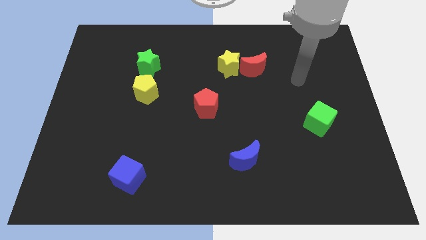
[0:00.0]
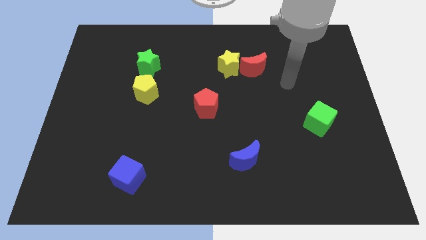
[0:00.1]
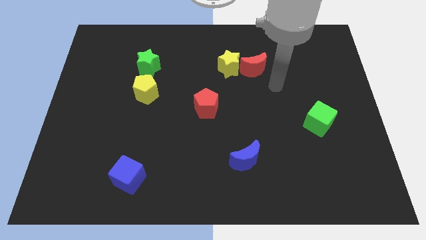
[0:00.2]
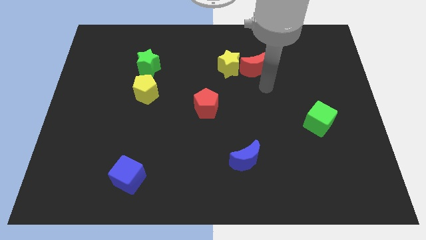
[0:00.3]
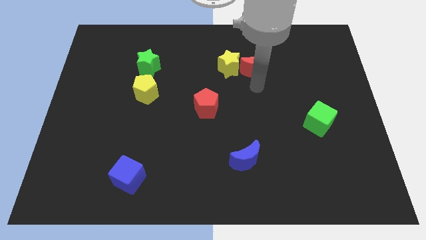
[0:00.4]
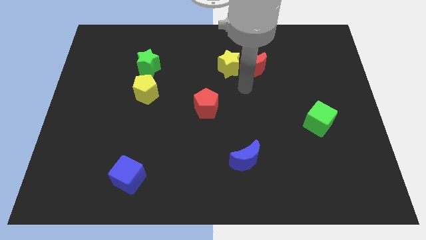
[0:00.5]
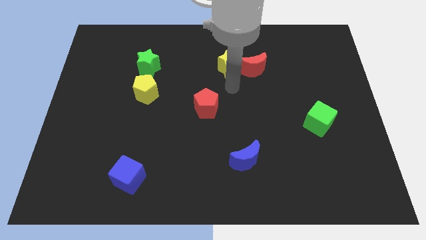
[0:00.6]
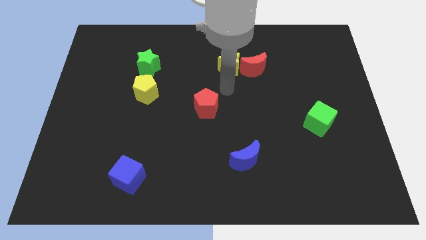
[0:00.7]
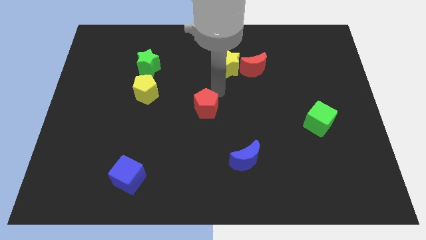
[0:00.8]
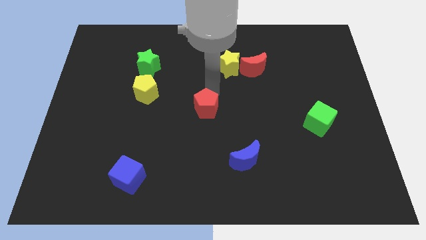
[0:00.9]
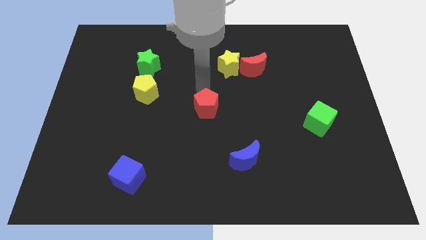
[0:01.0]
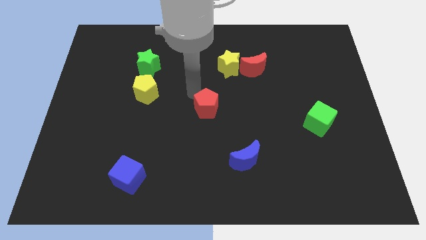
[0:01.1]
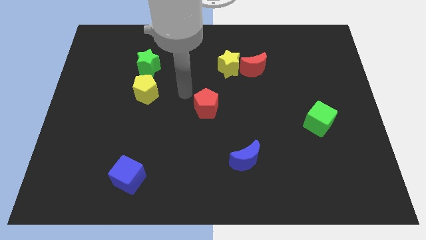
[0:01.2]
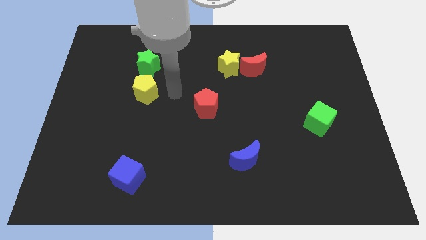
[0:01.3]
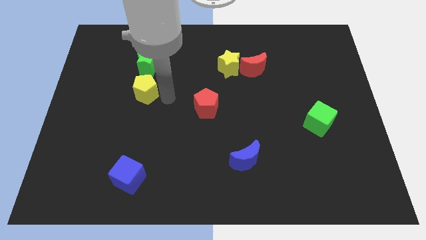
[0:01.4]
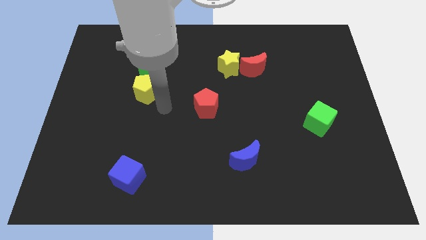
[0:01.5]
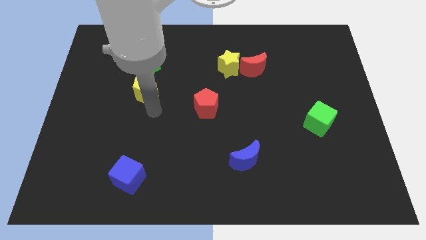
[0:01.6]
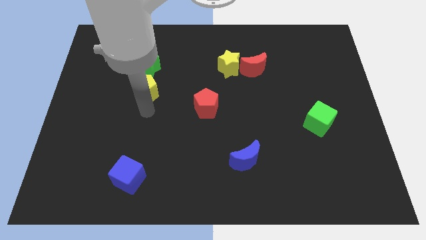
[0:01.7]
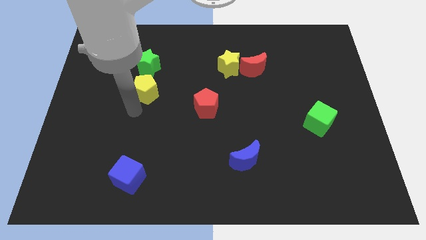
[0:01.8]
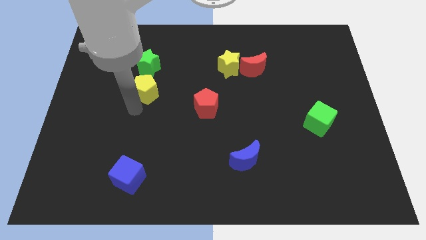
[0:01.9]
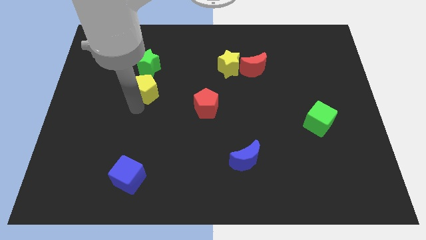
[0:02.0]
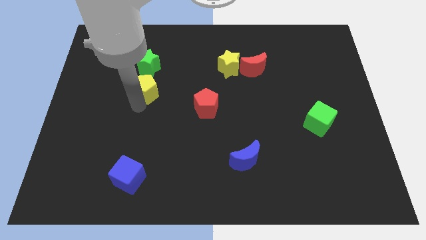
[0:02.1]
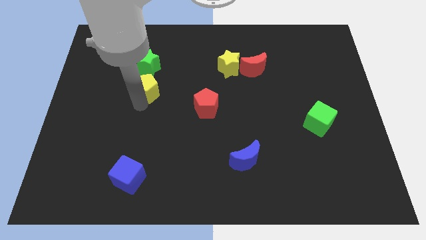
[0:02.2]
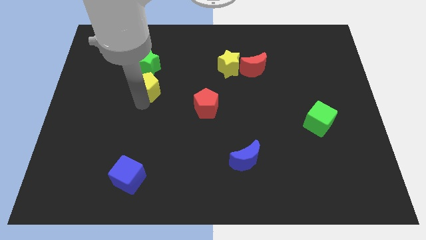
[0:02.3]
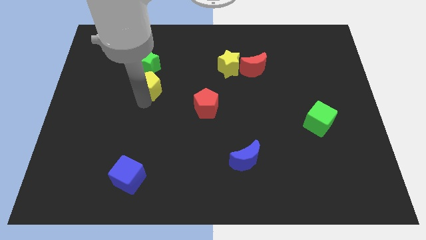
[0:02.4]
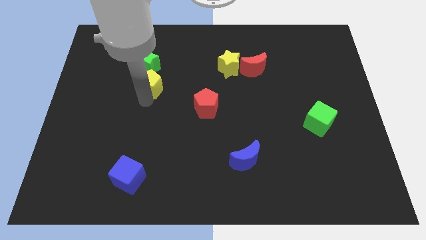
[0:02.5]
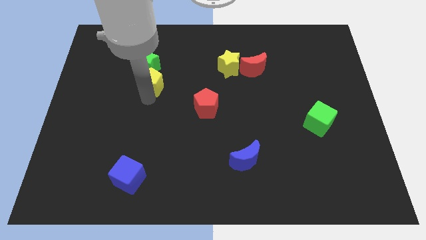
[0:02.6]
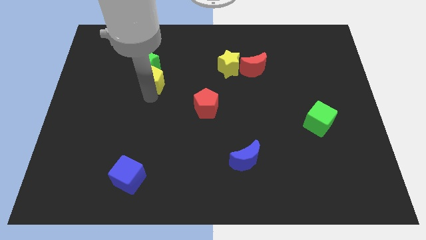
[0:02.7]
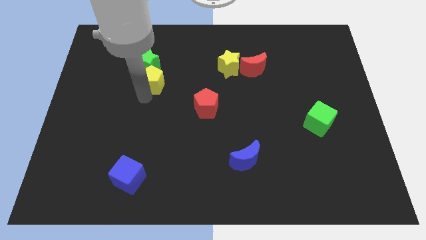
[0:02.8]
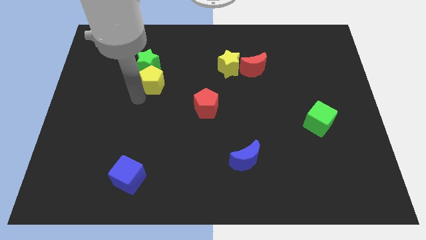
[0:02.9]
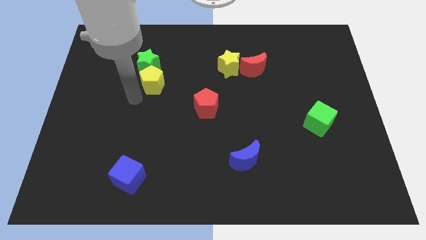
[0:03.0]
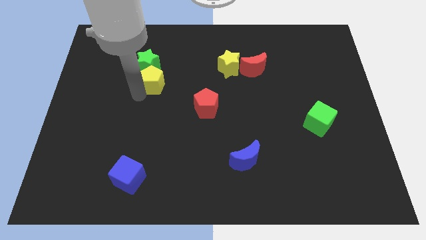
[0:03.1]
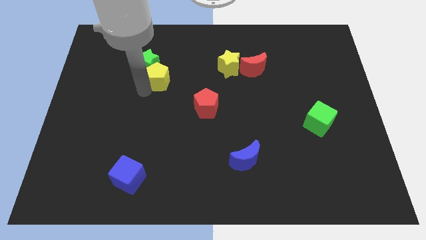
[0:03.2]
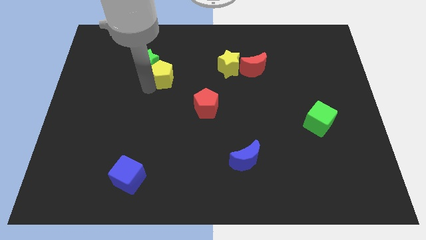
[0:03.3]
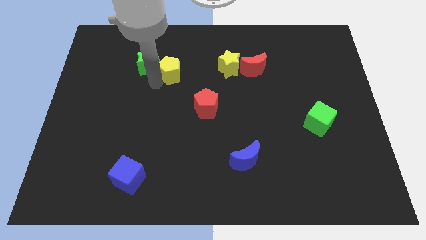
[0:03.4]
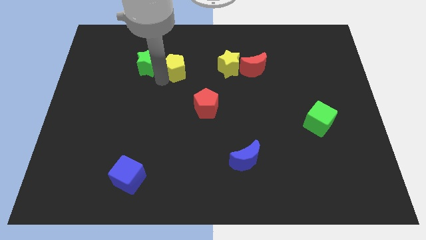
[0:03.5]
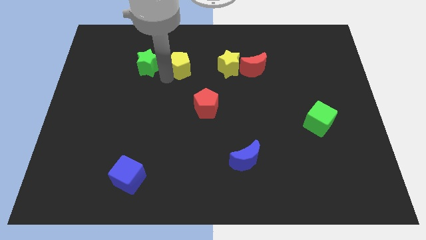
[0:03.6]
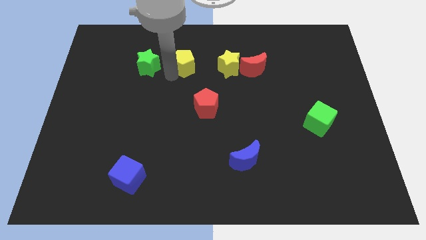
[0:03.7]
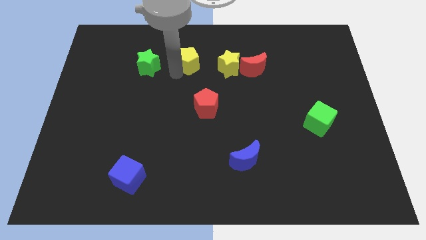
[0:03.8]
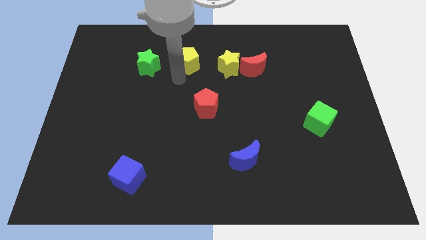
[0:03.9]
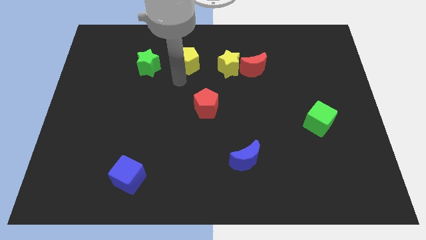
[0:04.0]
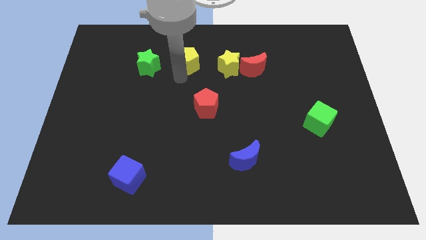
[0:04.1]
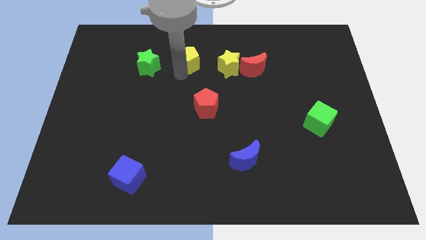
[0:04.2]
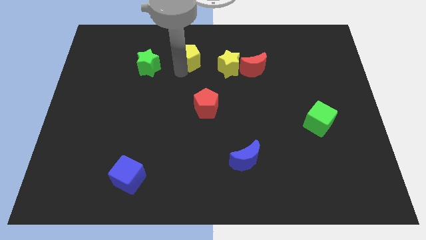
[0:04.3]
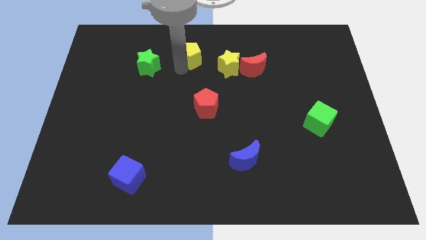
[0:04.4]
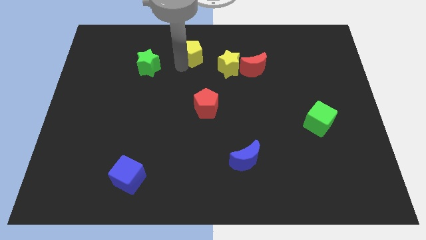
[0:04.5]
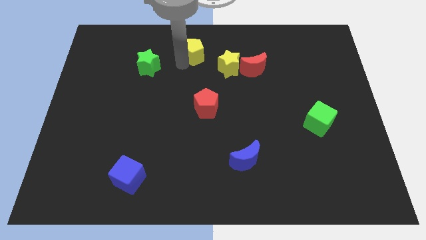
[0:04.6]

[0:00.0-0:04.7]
slide the yellow pentagon to the towards your base

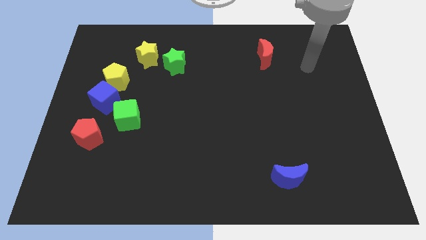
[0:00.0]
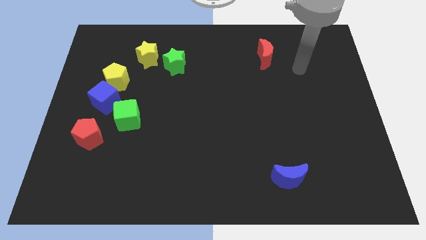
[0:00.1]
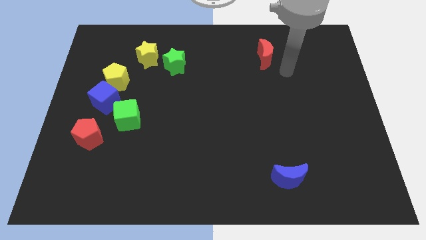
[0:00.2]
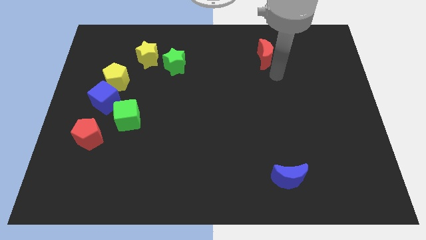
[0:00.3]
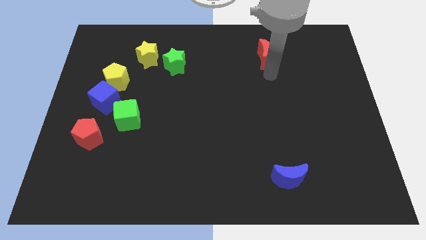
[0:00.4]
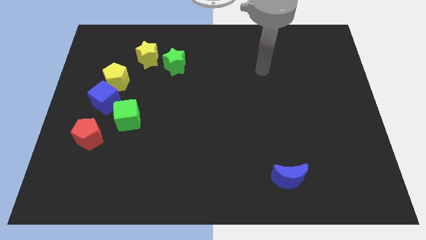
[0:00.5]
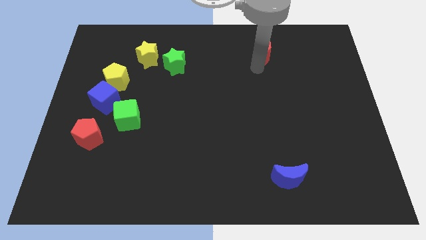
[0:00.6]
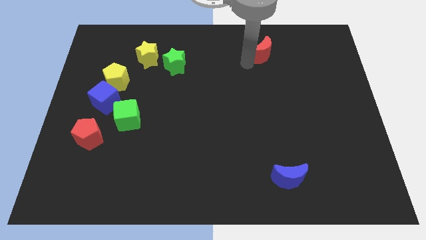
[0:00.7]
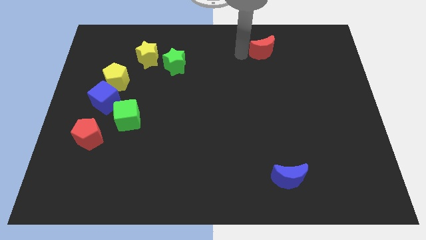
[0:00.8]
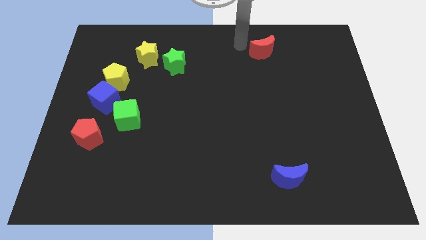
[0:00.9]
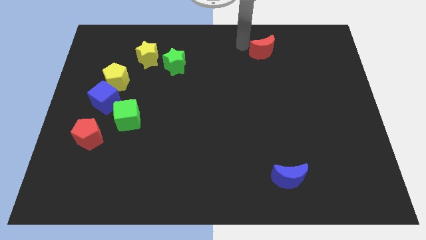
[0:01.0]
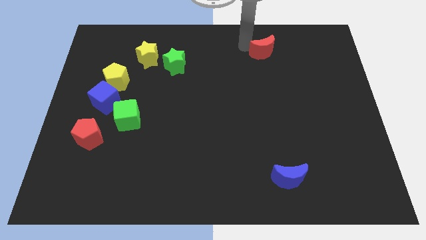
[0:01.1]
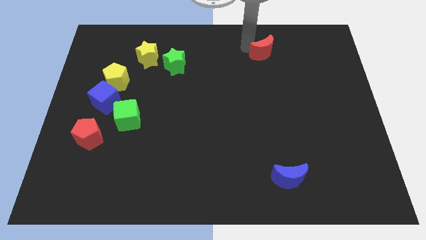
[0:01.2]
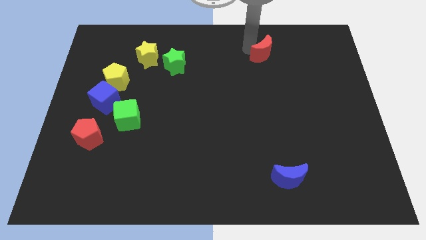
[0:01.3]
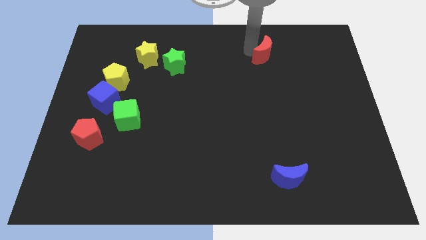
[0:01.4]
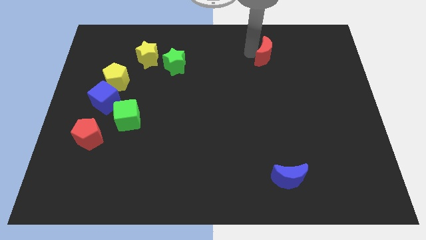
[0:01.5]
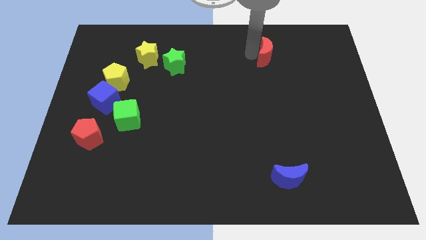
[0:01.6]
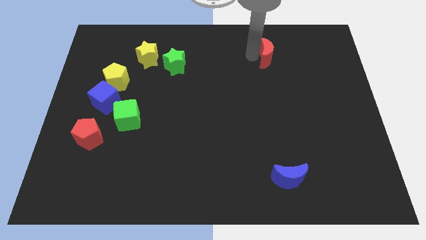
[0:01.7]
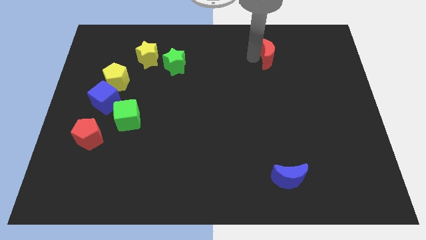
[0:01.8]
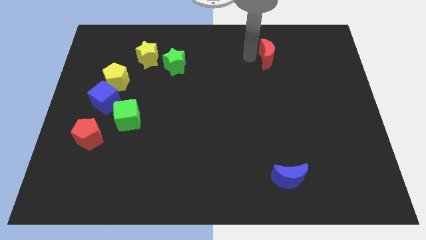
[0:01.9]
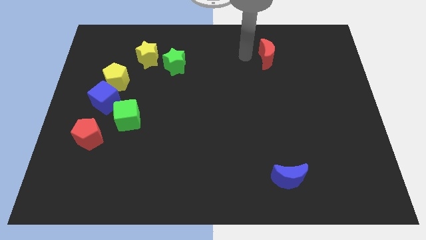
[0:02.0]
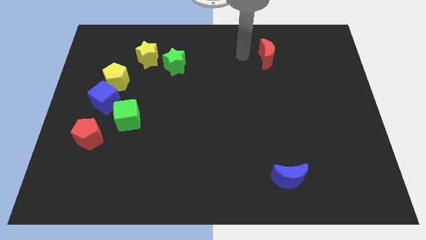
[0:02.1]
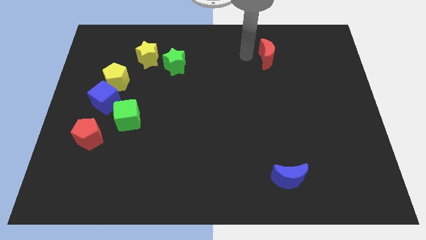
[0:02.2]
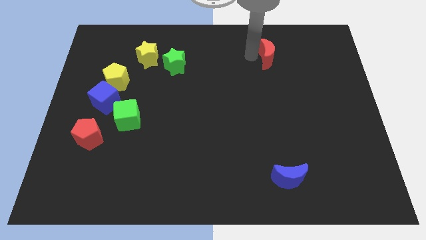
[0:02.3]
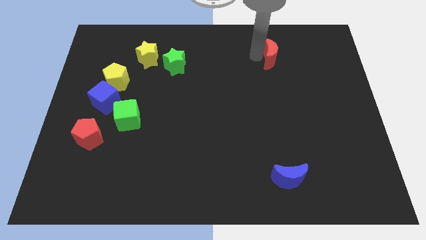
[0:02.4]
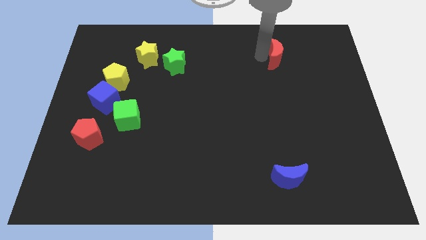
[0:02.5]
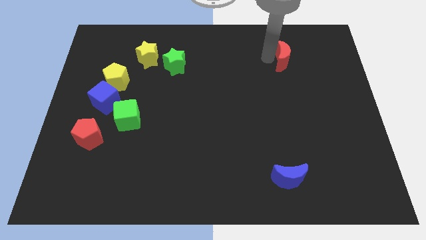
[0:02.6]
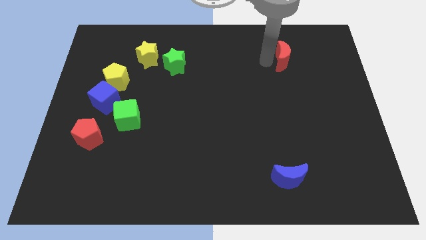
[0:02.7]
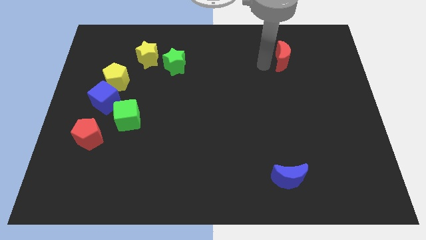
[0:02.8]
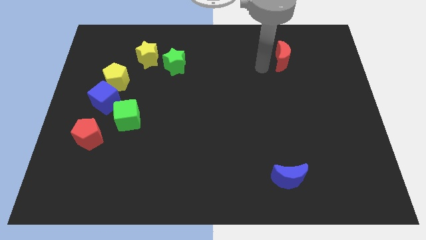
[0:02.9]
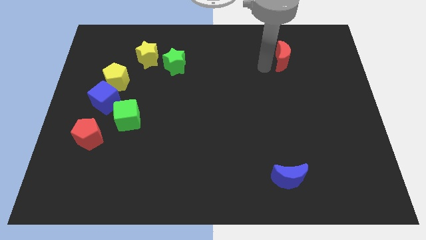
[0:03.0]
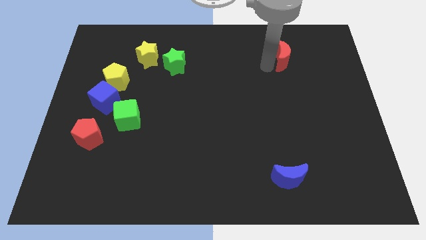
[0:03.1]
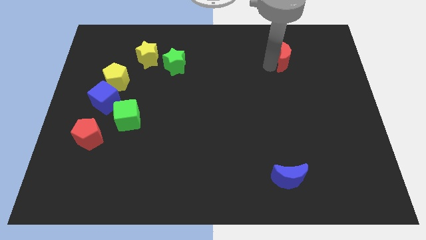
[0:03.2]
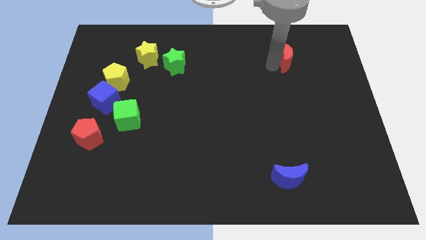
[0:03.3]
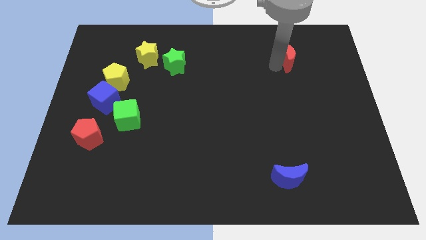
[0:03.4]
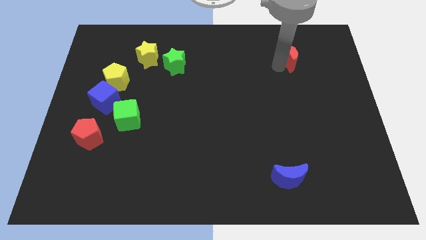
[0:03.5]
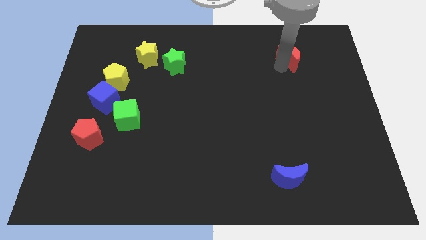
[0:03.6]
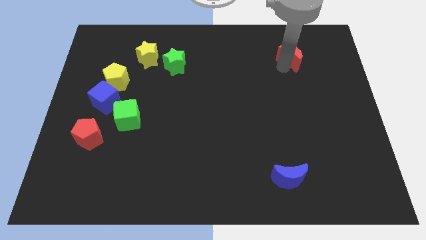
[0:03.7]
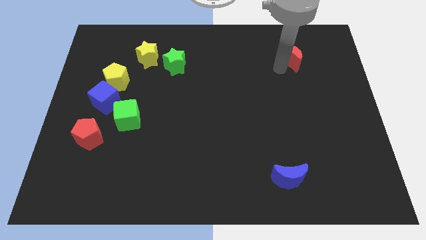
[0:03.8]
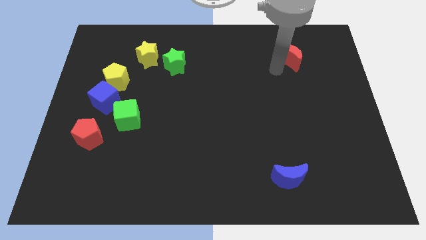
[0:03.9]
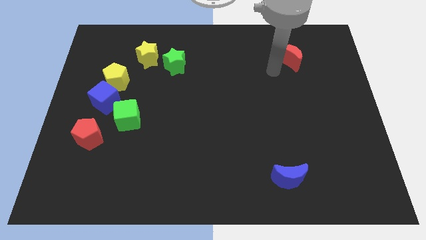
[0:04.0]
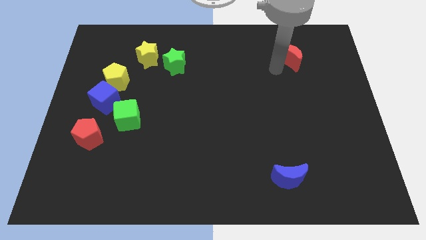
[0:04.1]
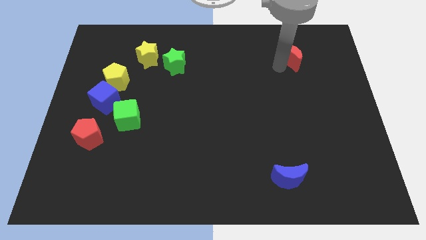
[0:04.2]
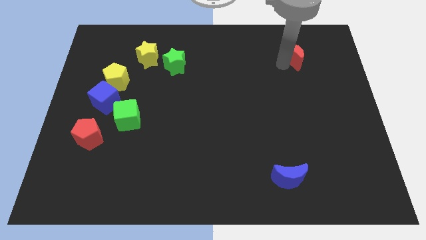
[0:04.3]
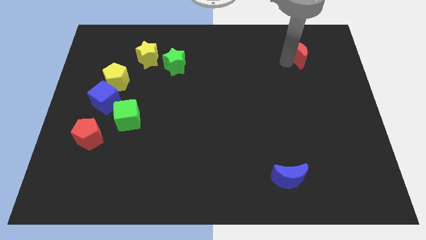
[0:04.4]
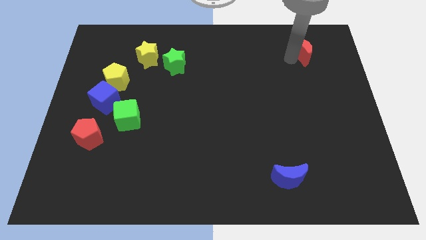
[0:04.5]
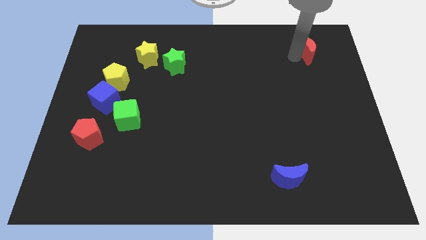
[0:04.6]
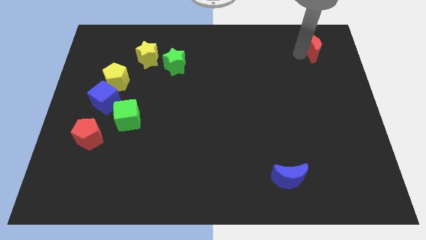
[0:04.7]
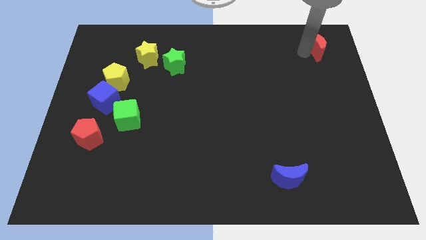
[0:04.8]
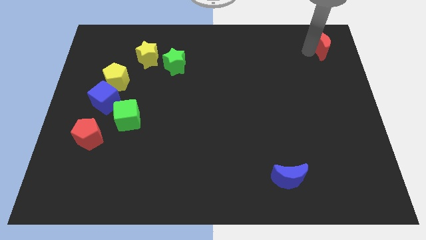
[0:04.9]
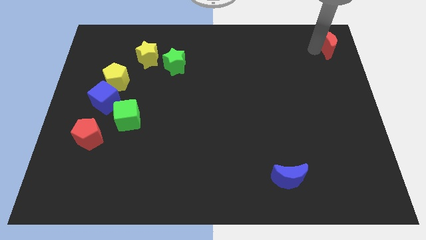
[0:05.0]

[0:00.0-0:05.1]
push the red moon to the top right of the board
